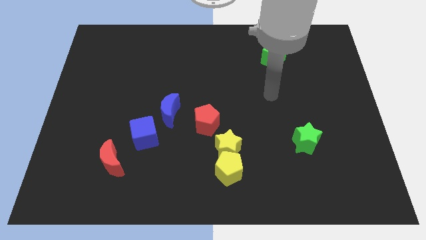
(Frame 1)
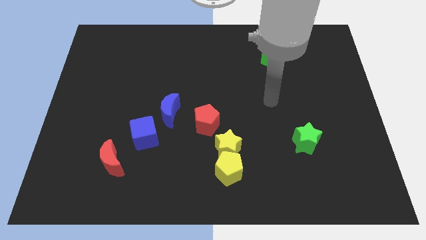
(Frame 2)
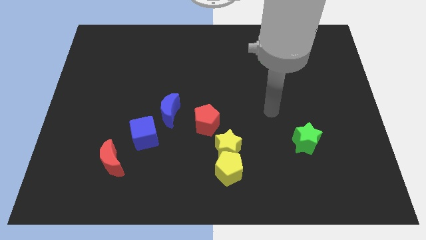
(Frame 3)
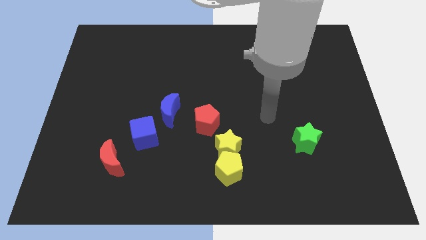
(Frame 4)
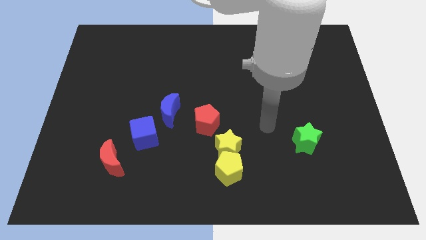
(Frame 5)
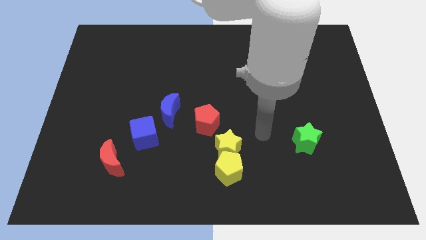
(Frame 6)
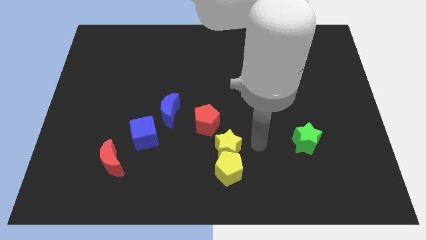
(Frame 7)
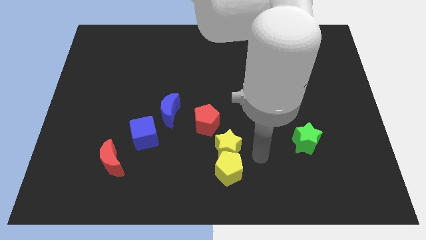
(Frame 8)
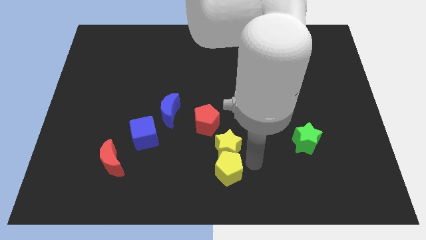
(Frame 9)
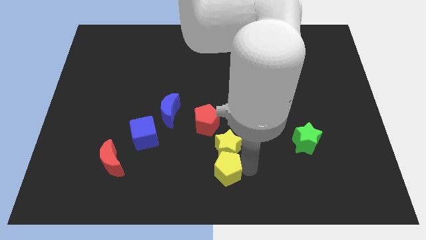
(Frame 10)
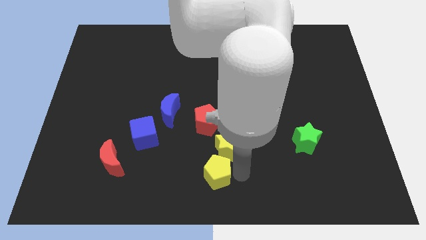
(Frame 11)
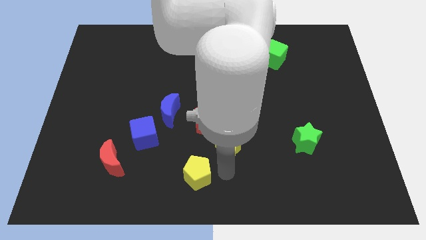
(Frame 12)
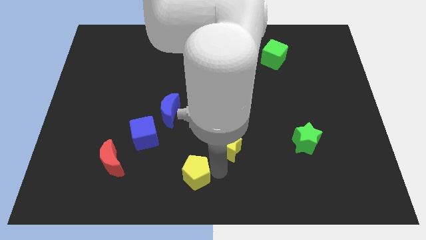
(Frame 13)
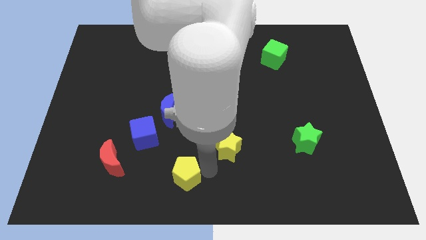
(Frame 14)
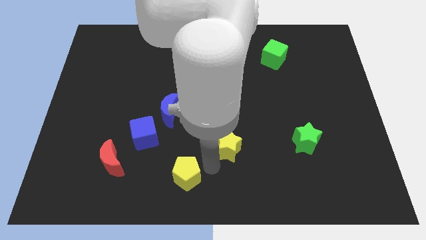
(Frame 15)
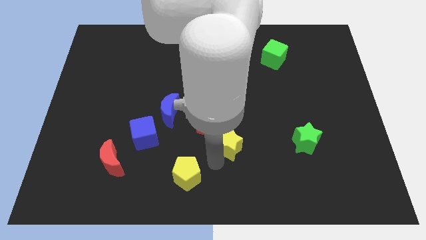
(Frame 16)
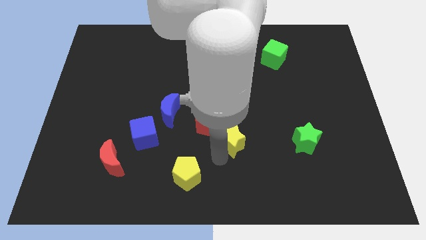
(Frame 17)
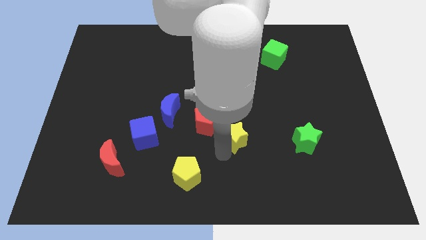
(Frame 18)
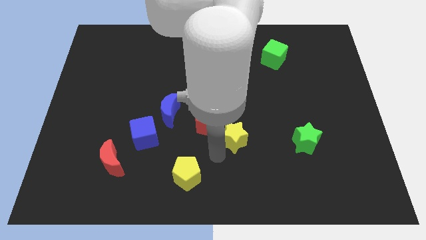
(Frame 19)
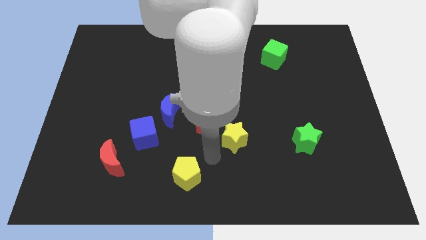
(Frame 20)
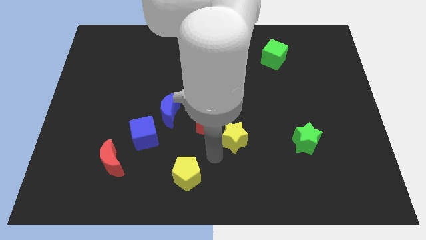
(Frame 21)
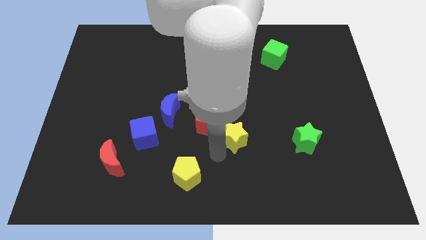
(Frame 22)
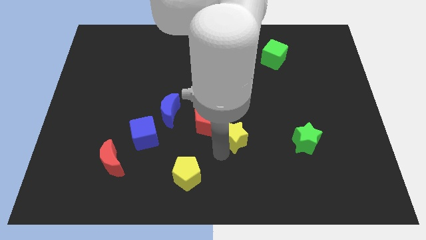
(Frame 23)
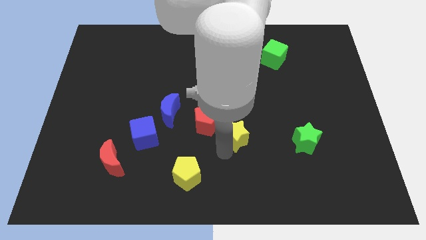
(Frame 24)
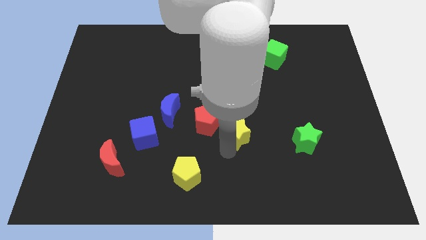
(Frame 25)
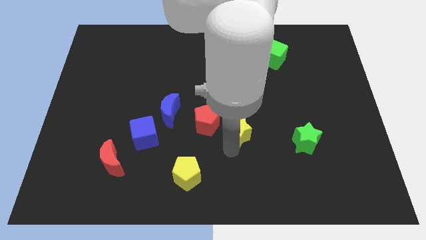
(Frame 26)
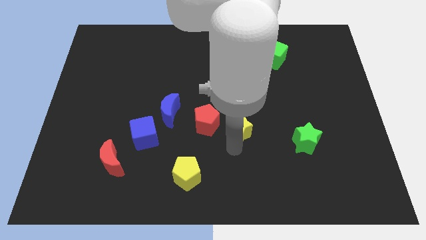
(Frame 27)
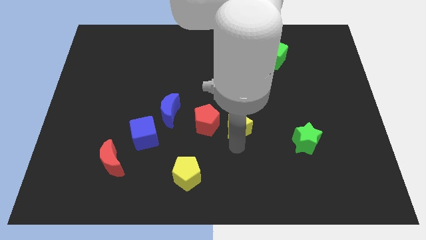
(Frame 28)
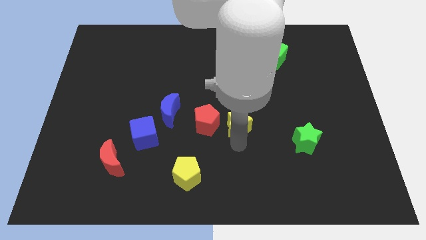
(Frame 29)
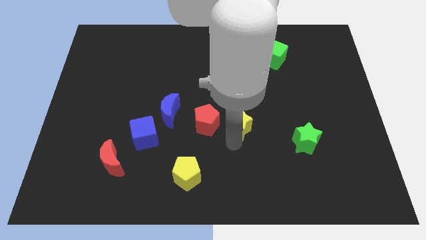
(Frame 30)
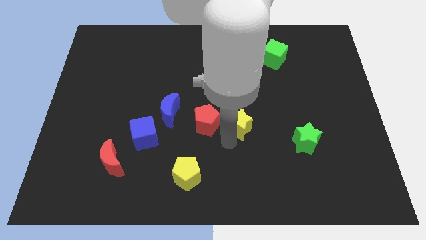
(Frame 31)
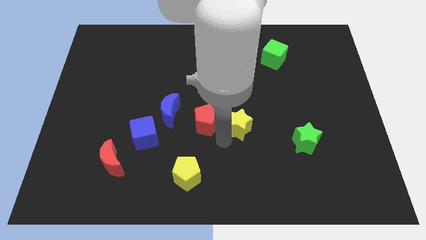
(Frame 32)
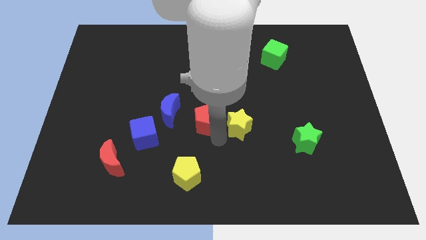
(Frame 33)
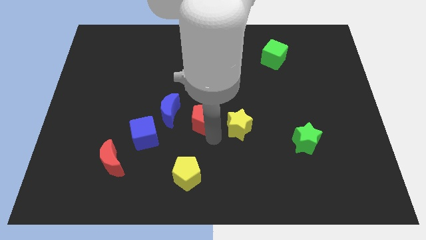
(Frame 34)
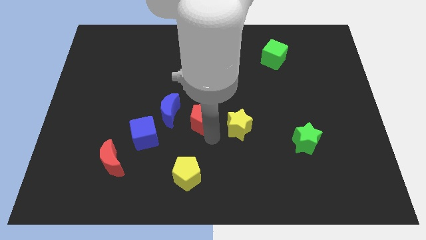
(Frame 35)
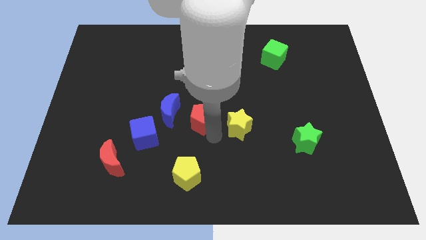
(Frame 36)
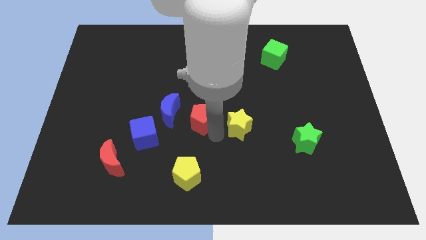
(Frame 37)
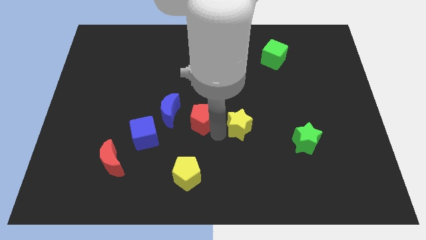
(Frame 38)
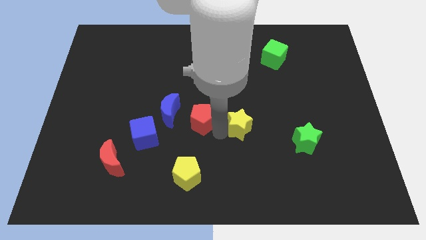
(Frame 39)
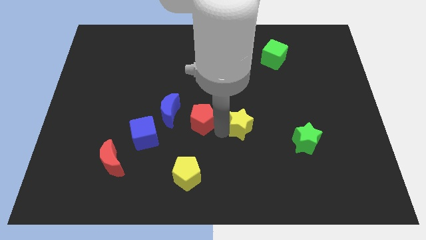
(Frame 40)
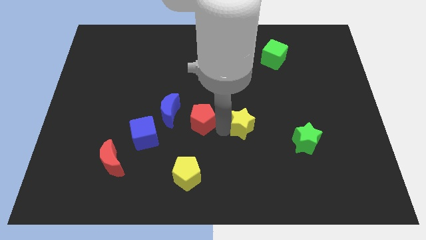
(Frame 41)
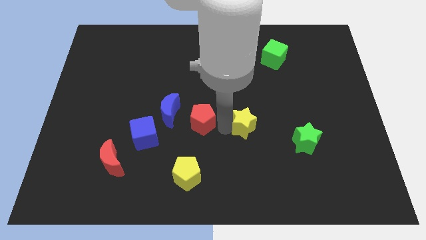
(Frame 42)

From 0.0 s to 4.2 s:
slightly slide the yellow star diagonally up and to the right

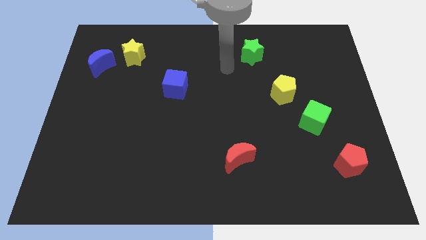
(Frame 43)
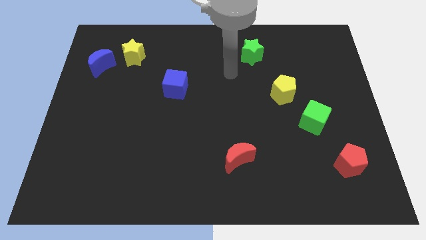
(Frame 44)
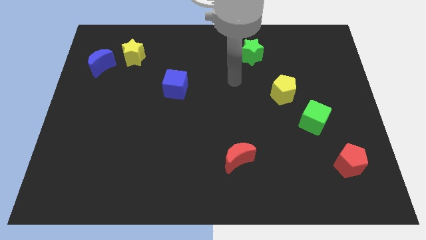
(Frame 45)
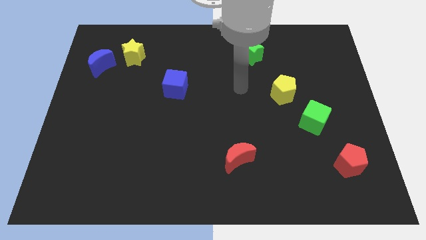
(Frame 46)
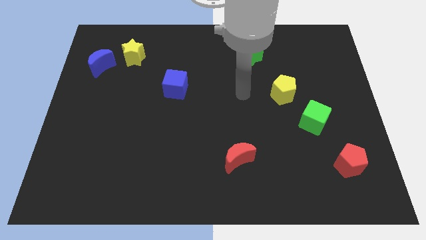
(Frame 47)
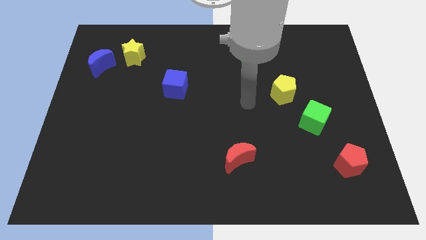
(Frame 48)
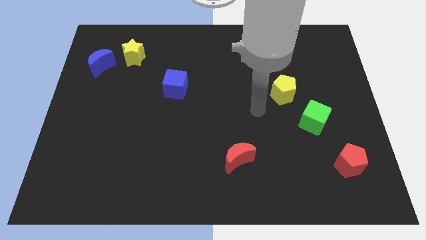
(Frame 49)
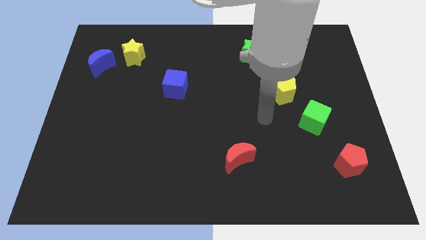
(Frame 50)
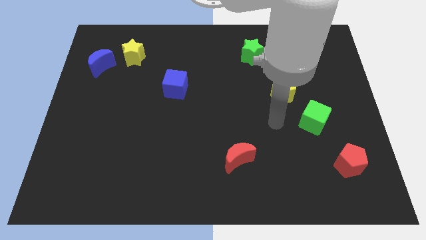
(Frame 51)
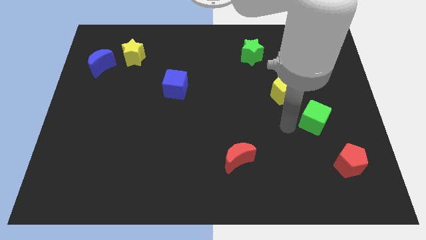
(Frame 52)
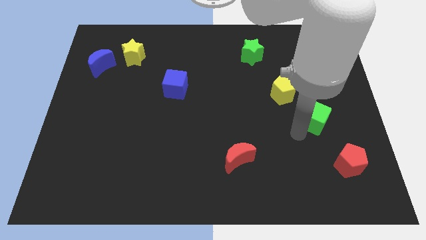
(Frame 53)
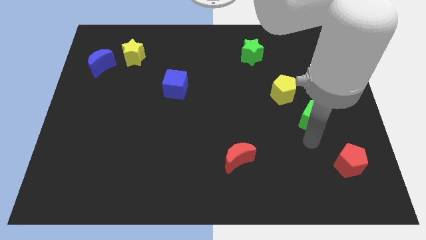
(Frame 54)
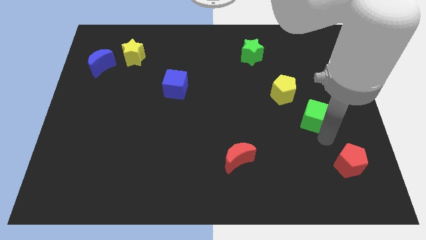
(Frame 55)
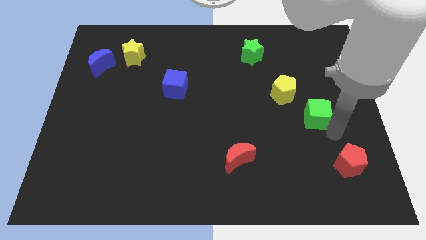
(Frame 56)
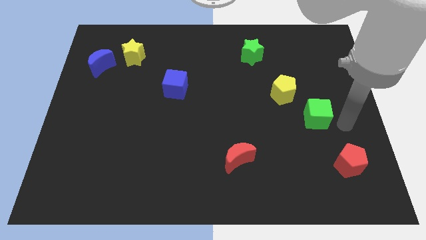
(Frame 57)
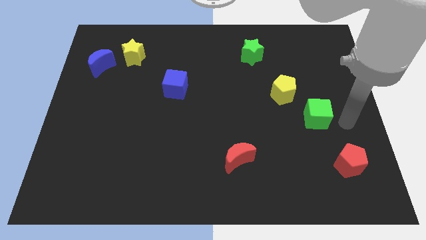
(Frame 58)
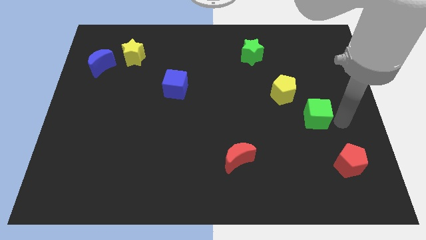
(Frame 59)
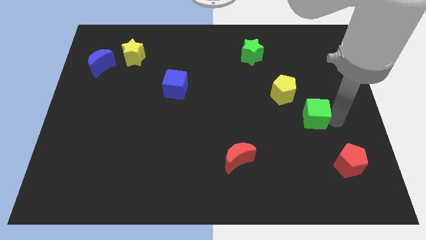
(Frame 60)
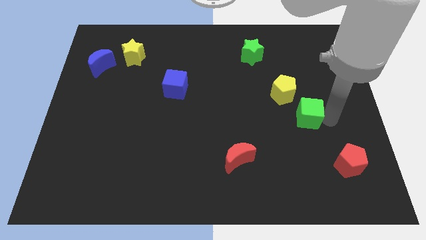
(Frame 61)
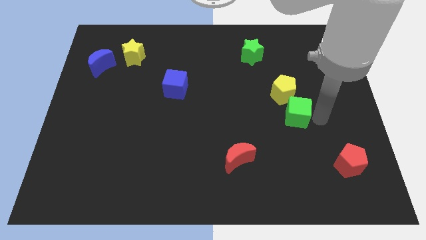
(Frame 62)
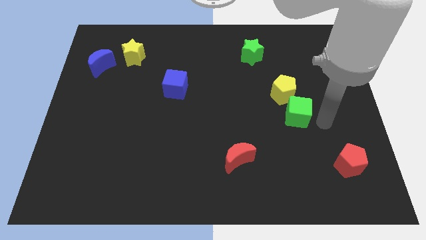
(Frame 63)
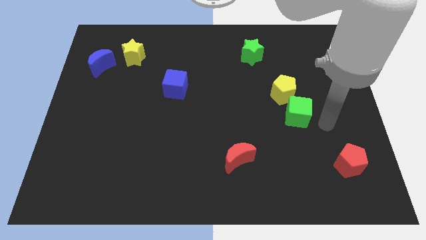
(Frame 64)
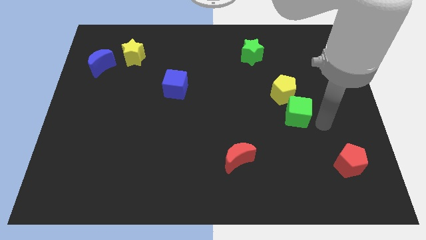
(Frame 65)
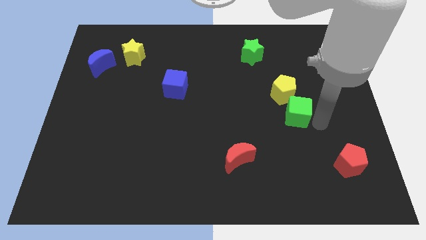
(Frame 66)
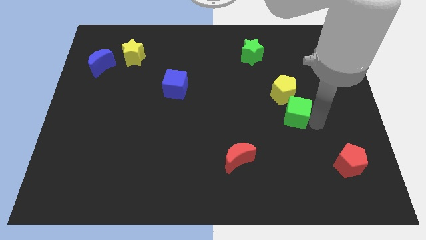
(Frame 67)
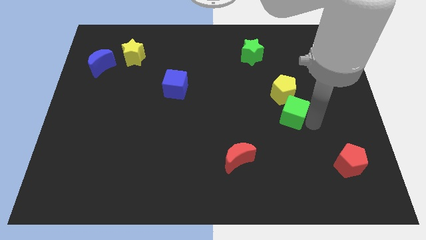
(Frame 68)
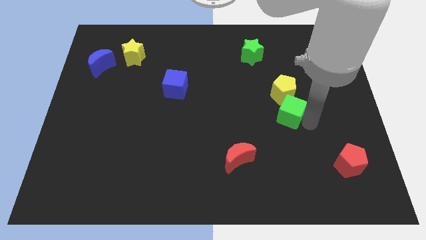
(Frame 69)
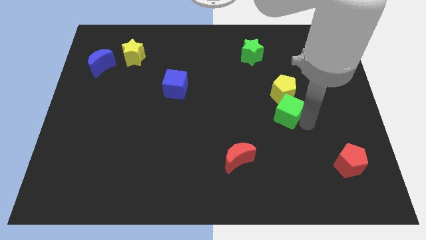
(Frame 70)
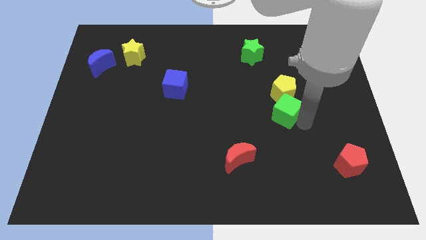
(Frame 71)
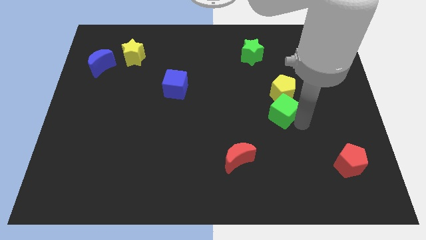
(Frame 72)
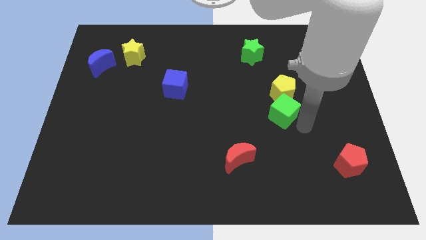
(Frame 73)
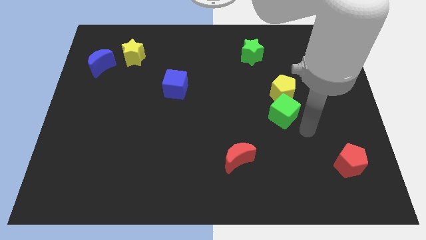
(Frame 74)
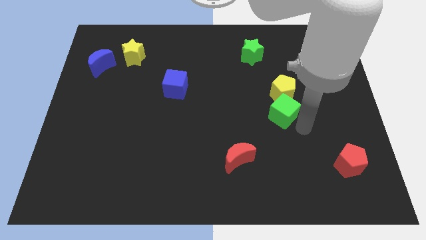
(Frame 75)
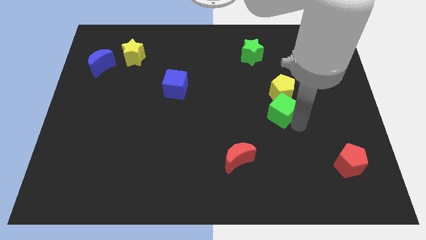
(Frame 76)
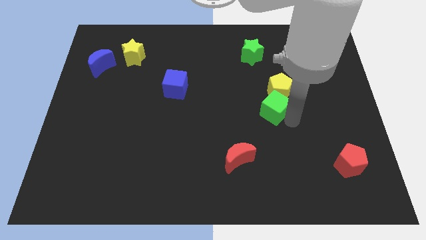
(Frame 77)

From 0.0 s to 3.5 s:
slide the green cube up and left somewhat
